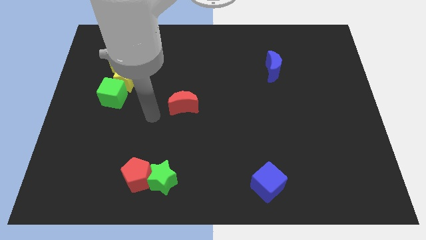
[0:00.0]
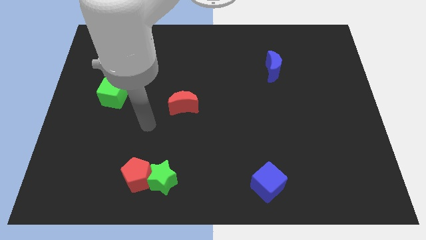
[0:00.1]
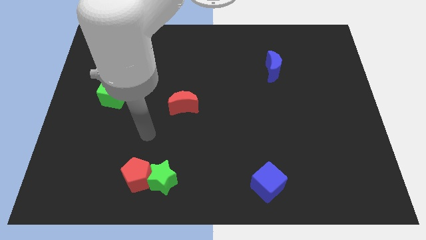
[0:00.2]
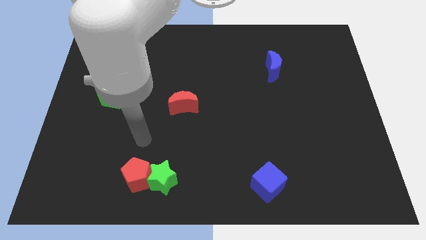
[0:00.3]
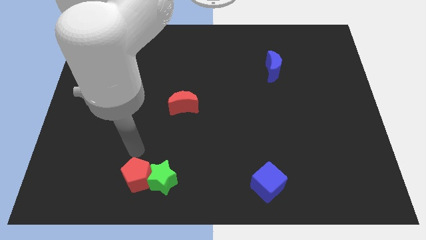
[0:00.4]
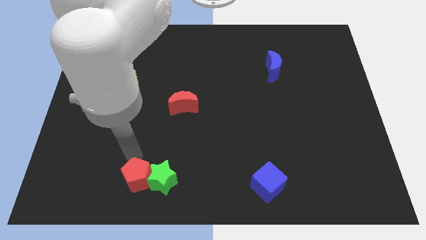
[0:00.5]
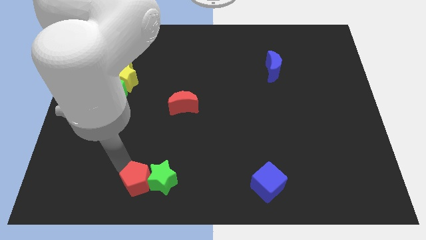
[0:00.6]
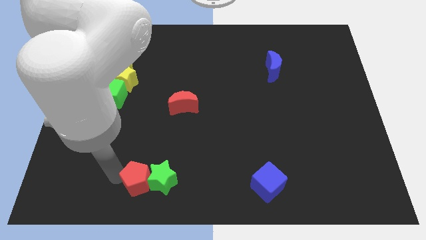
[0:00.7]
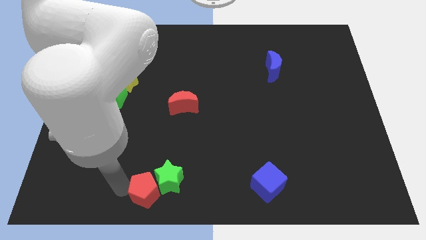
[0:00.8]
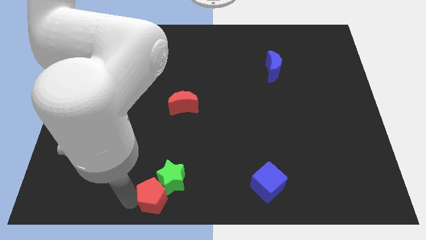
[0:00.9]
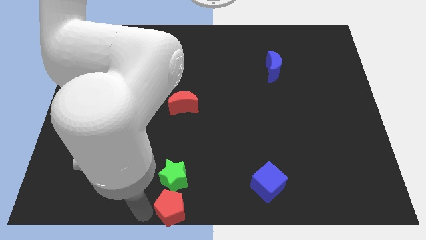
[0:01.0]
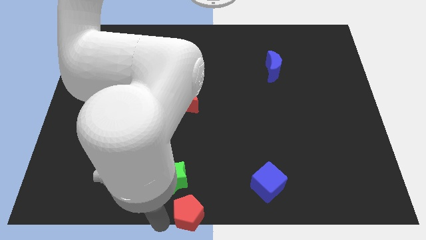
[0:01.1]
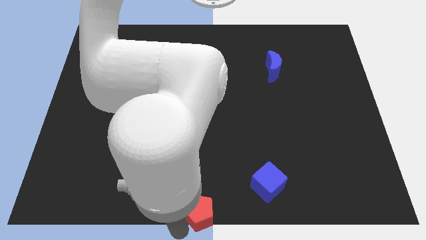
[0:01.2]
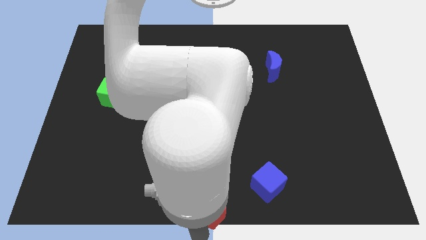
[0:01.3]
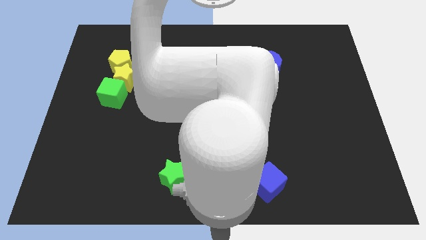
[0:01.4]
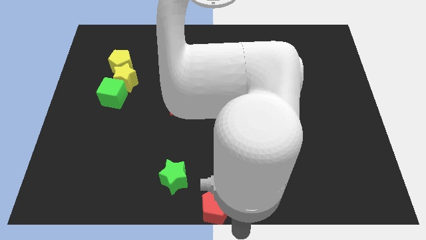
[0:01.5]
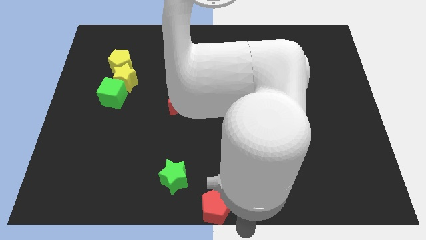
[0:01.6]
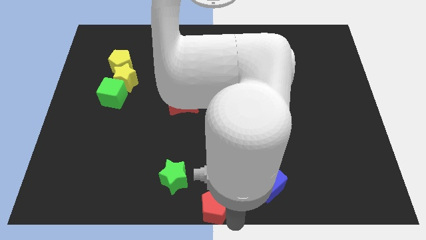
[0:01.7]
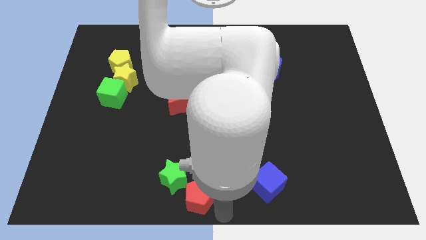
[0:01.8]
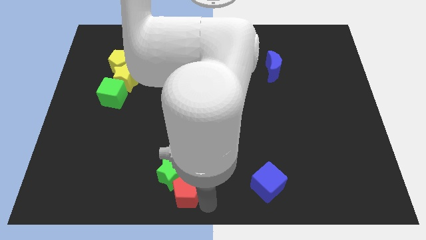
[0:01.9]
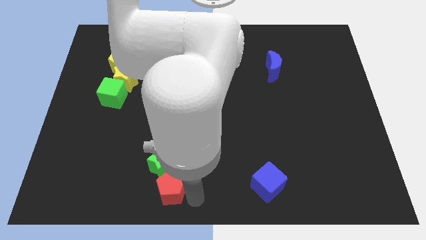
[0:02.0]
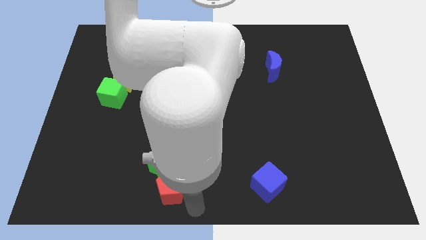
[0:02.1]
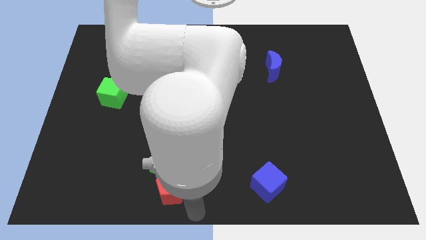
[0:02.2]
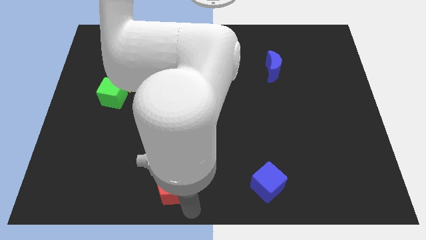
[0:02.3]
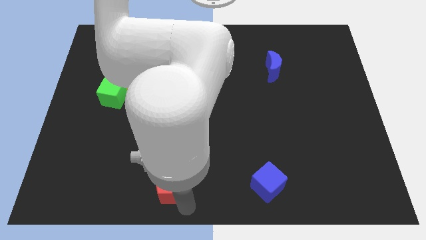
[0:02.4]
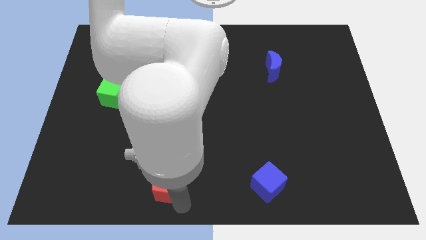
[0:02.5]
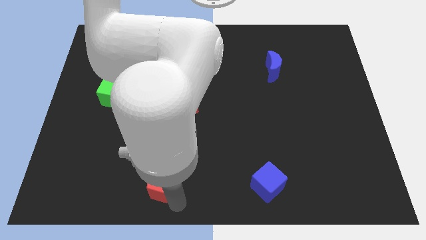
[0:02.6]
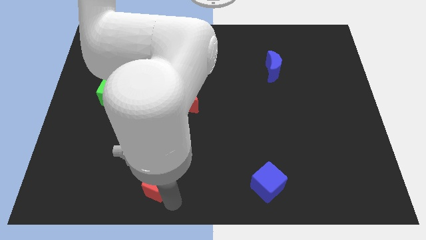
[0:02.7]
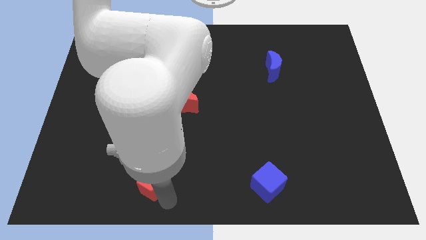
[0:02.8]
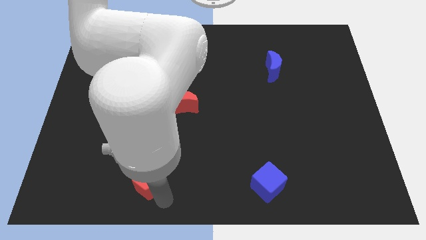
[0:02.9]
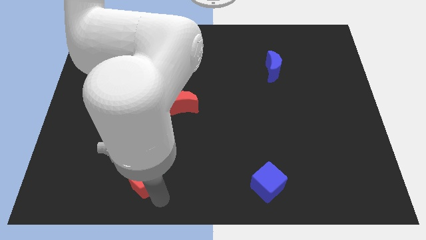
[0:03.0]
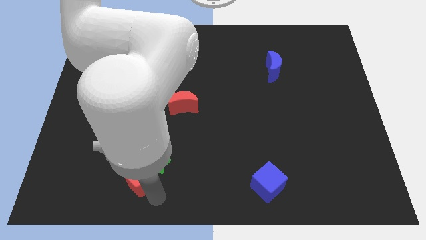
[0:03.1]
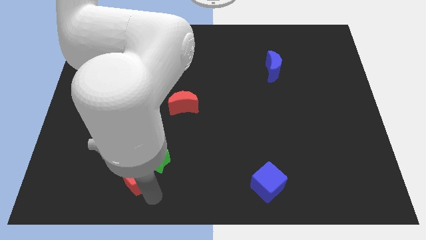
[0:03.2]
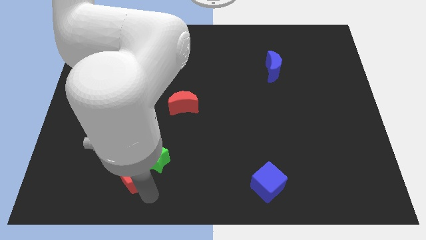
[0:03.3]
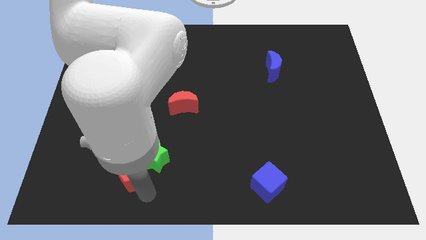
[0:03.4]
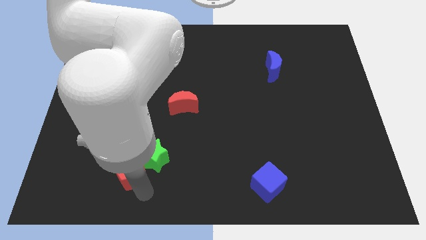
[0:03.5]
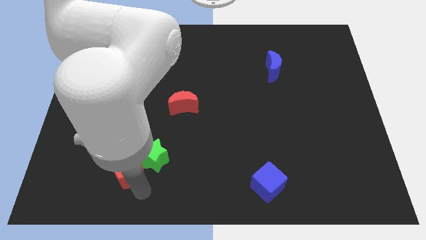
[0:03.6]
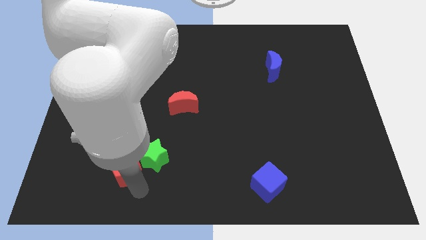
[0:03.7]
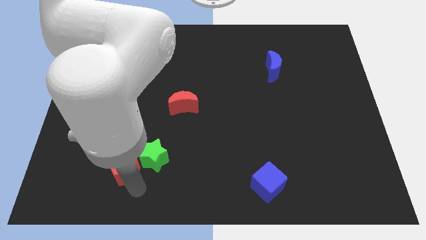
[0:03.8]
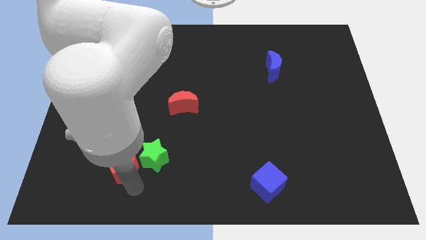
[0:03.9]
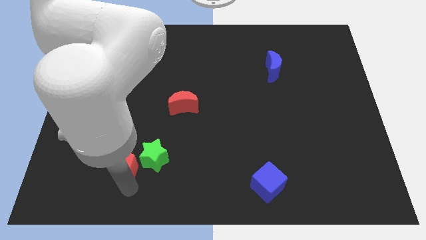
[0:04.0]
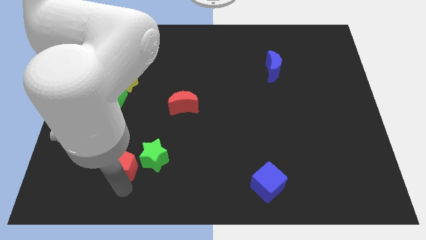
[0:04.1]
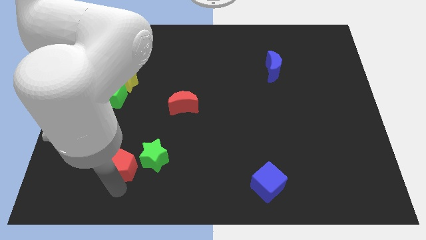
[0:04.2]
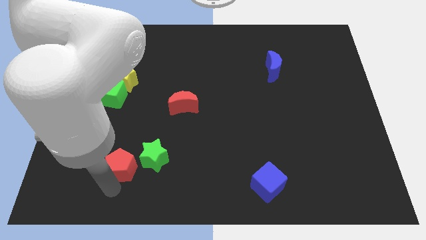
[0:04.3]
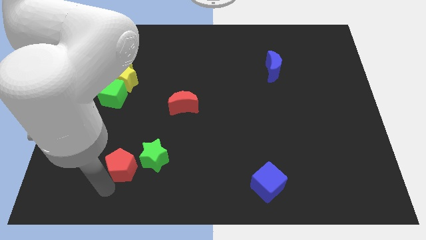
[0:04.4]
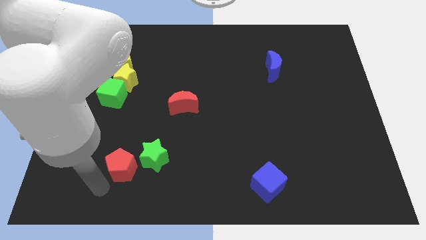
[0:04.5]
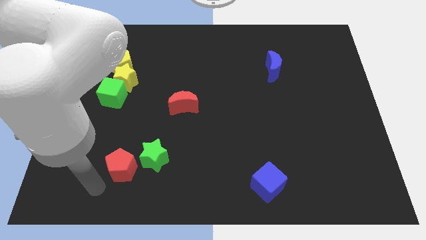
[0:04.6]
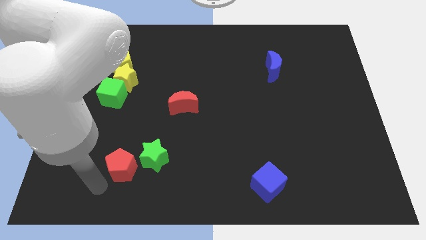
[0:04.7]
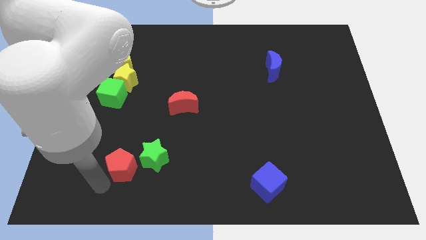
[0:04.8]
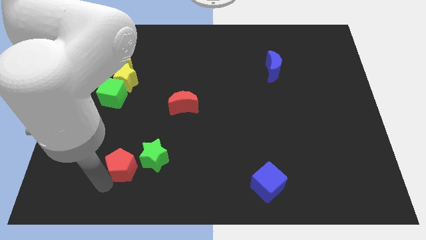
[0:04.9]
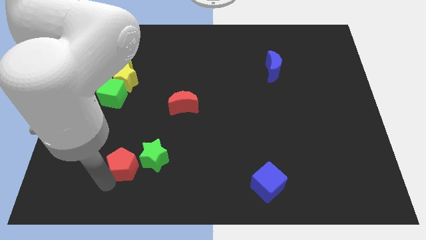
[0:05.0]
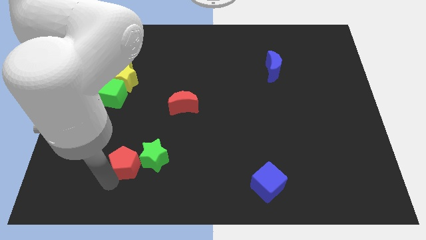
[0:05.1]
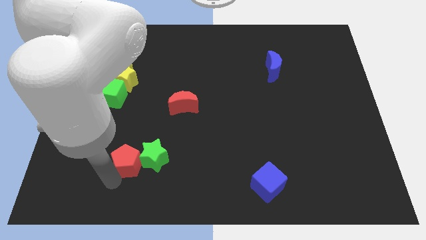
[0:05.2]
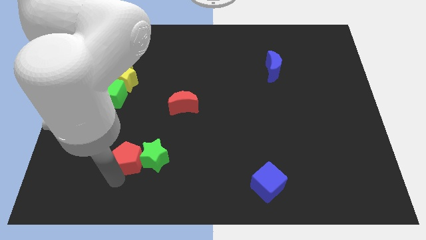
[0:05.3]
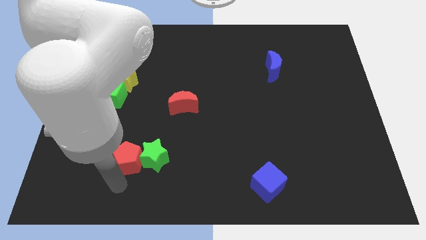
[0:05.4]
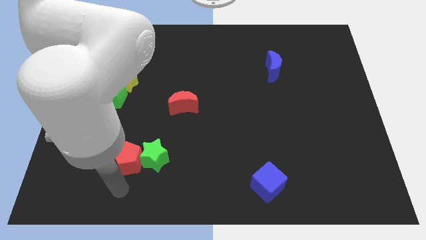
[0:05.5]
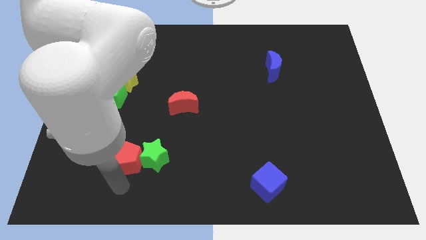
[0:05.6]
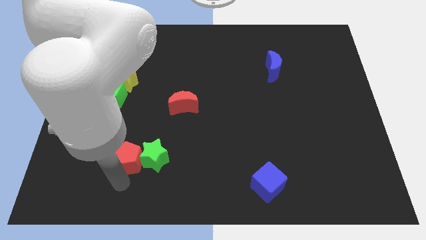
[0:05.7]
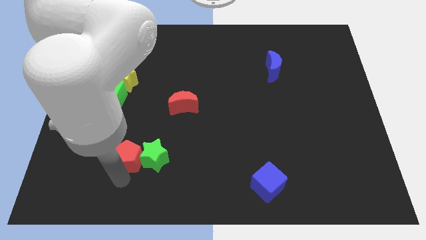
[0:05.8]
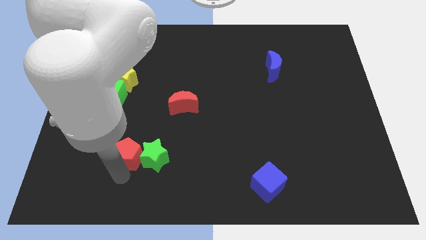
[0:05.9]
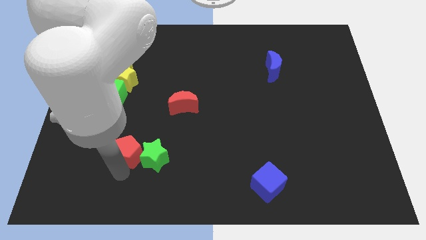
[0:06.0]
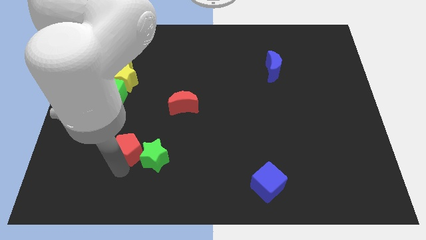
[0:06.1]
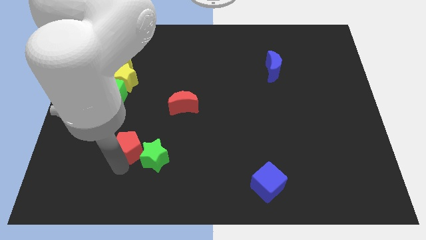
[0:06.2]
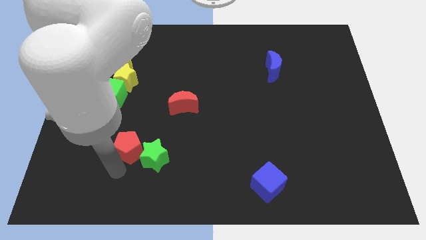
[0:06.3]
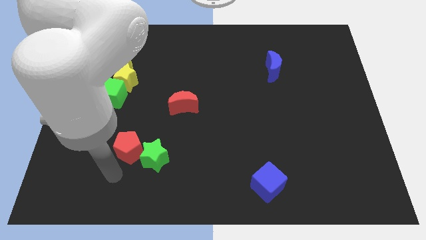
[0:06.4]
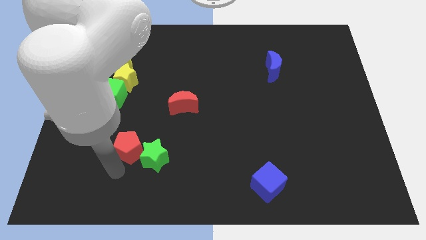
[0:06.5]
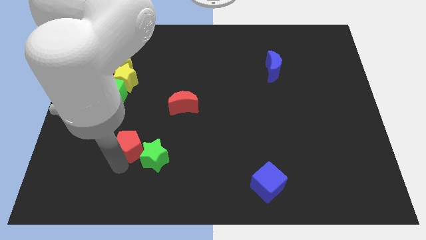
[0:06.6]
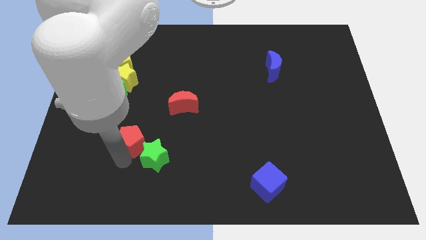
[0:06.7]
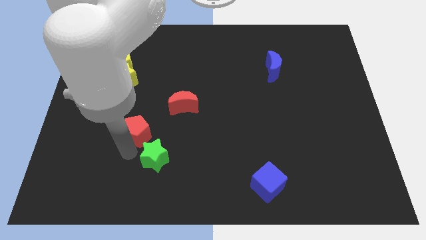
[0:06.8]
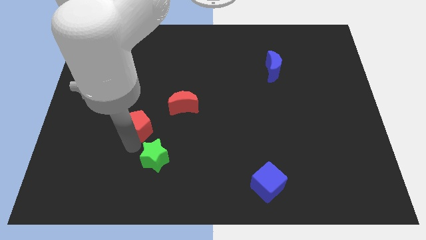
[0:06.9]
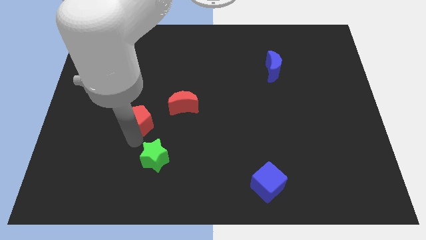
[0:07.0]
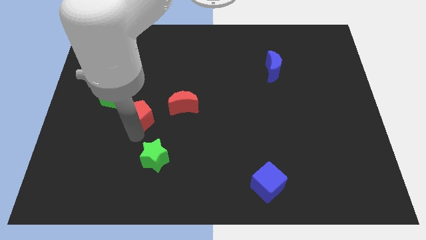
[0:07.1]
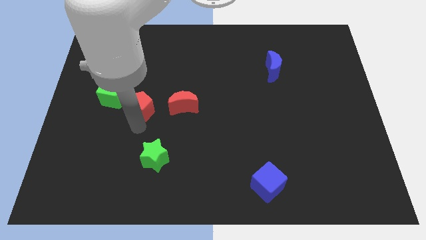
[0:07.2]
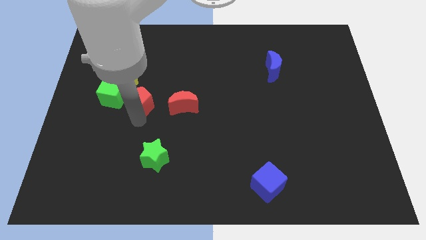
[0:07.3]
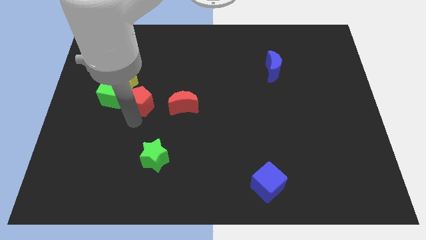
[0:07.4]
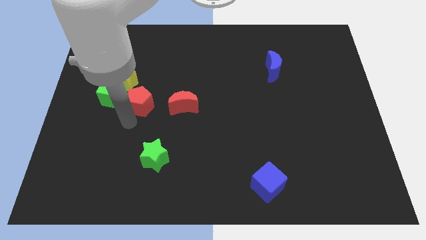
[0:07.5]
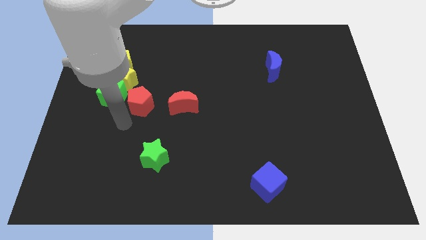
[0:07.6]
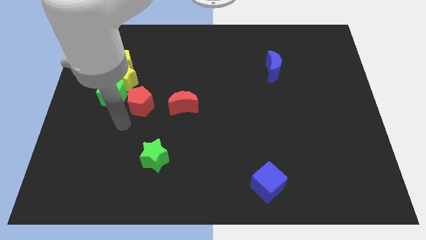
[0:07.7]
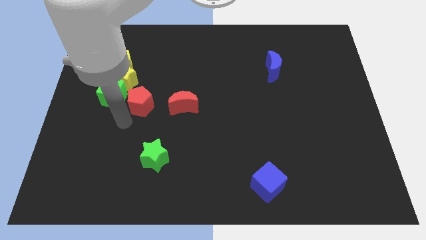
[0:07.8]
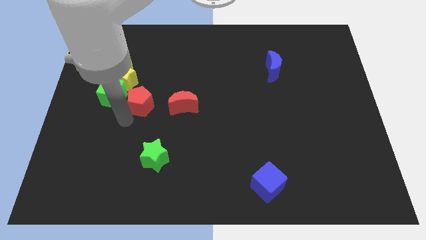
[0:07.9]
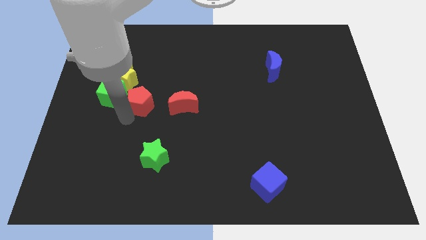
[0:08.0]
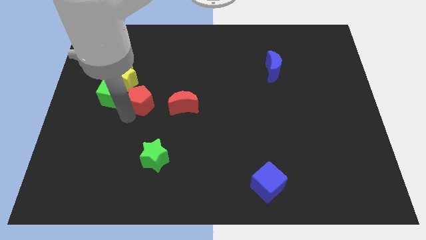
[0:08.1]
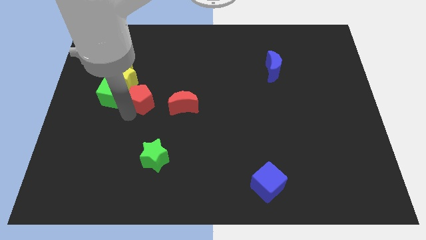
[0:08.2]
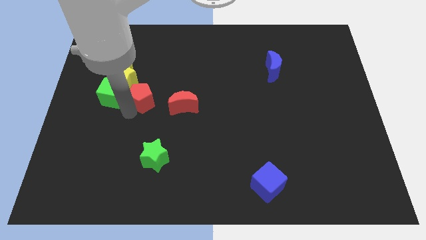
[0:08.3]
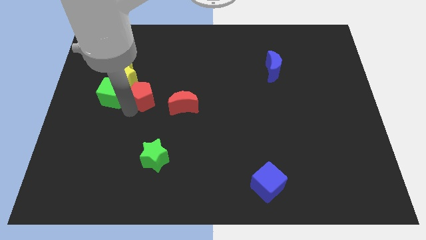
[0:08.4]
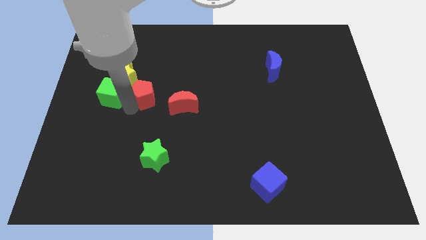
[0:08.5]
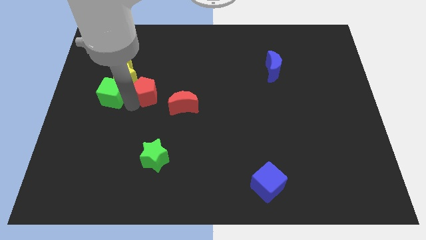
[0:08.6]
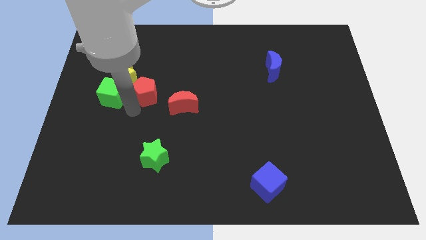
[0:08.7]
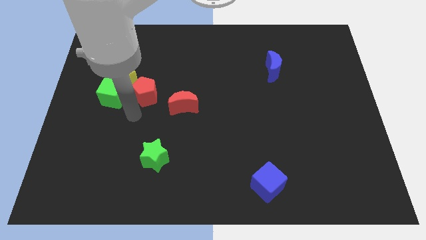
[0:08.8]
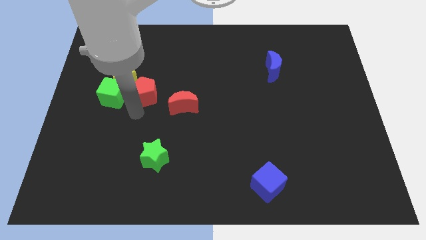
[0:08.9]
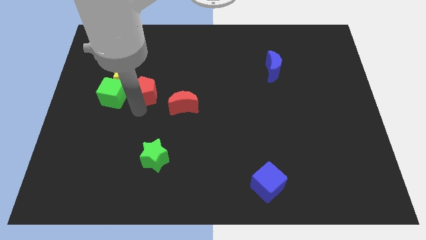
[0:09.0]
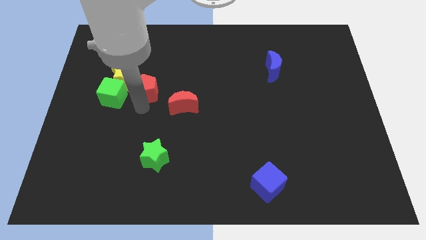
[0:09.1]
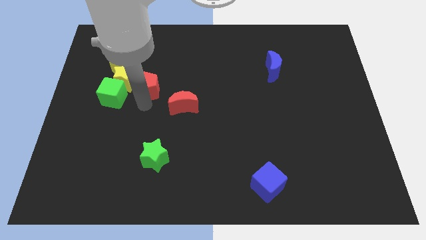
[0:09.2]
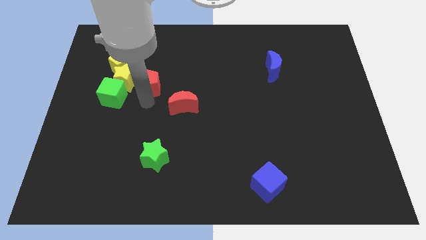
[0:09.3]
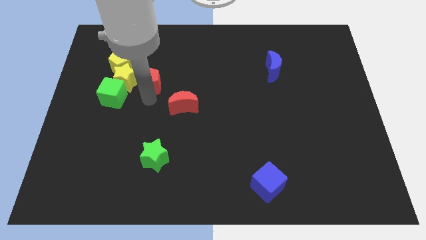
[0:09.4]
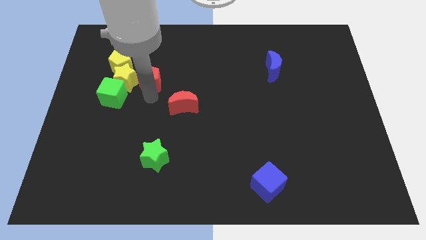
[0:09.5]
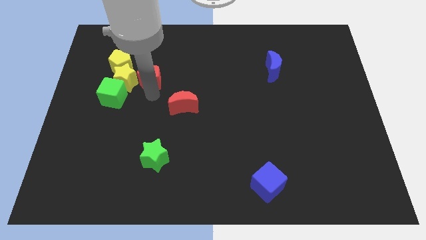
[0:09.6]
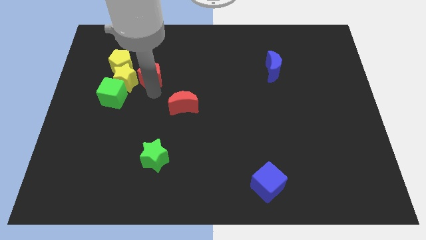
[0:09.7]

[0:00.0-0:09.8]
move the red pentagon to the right of the yellow pentagon
